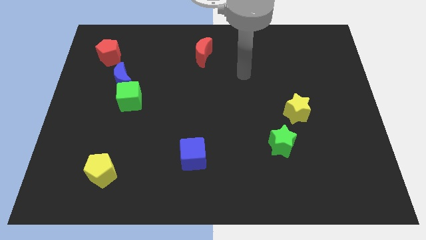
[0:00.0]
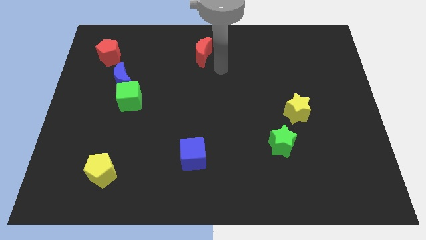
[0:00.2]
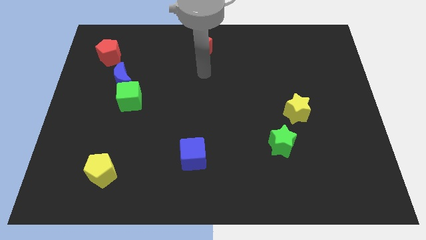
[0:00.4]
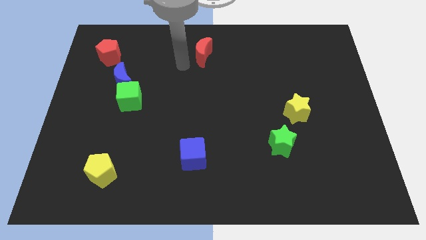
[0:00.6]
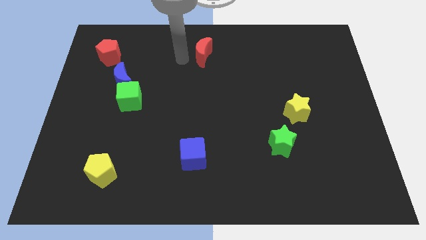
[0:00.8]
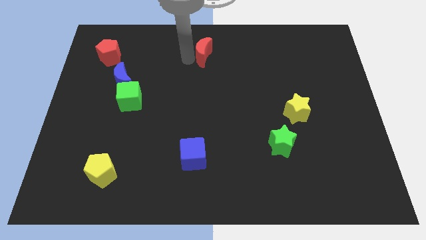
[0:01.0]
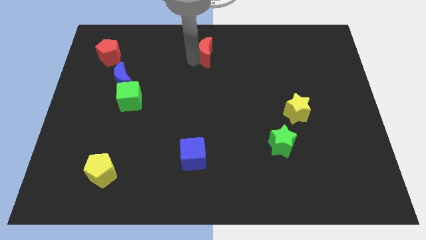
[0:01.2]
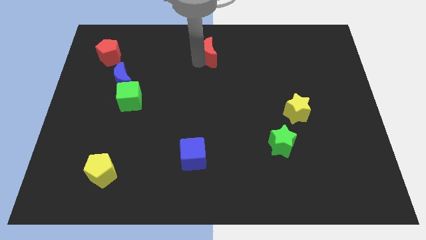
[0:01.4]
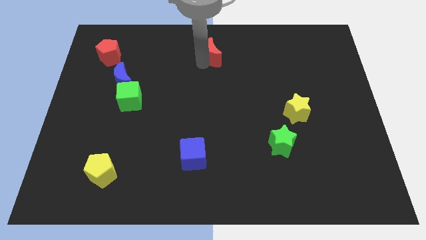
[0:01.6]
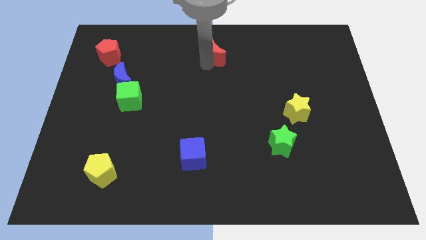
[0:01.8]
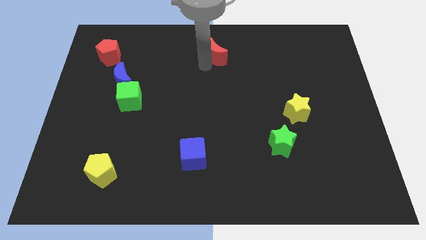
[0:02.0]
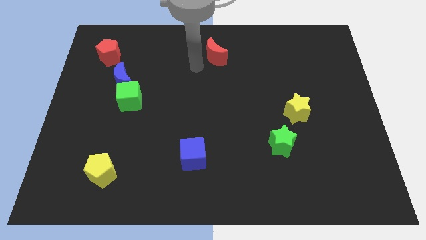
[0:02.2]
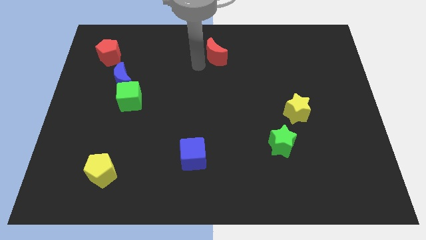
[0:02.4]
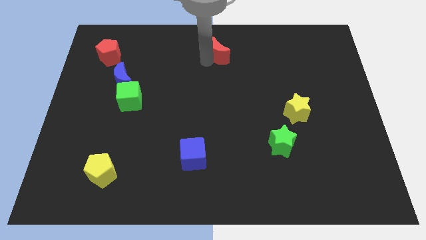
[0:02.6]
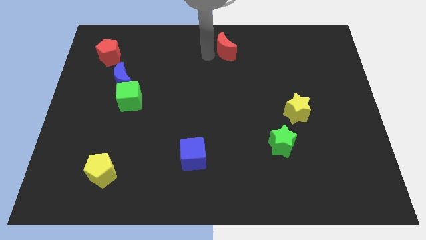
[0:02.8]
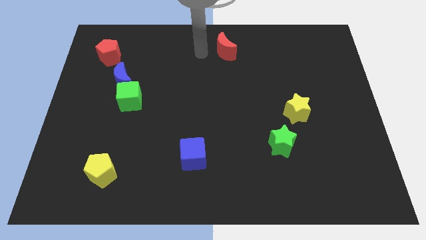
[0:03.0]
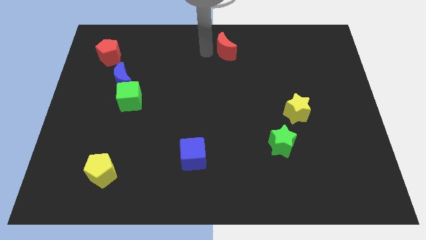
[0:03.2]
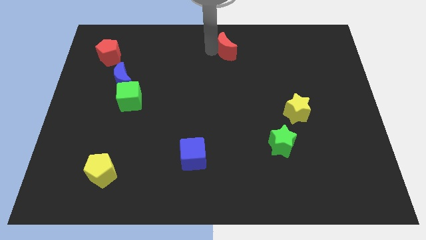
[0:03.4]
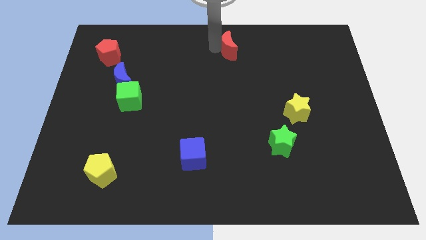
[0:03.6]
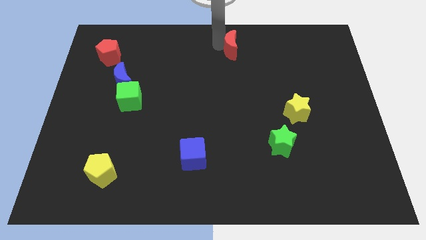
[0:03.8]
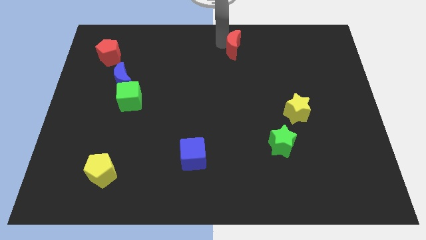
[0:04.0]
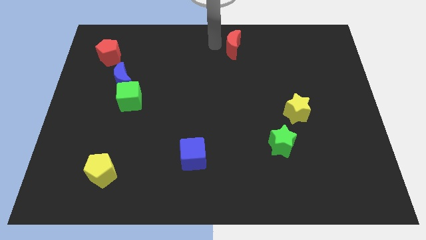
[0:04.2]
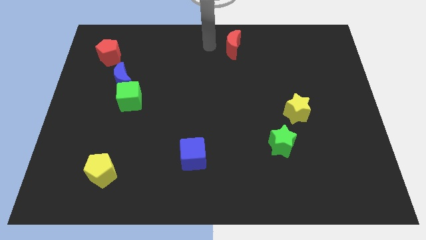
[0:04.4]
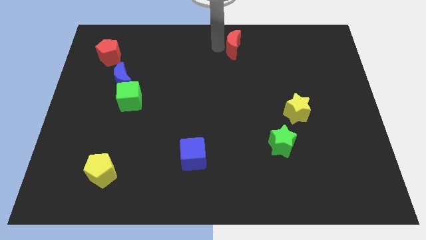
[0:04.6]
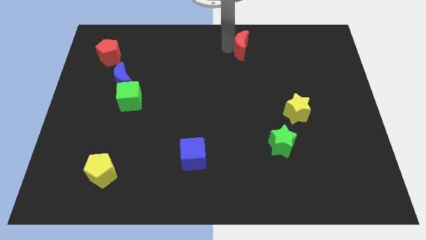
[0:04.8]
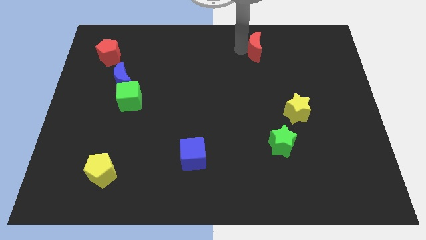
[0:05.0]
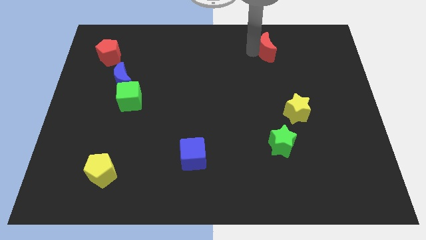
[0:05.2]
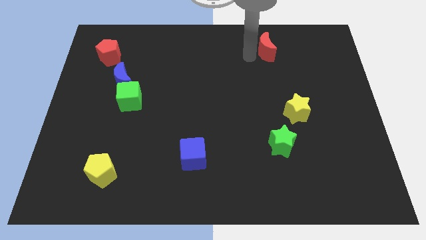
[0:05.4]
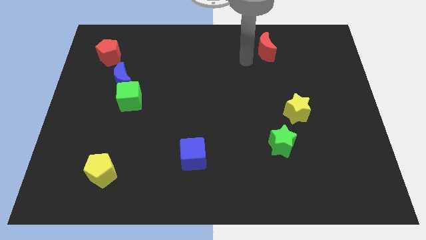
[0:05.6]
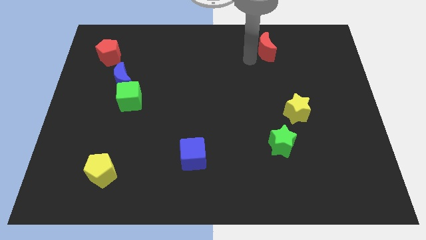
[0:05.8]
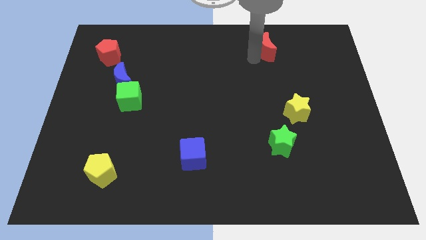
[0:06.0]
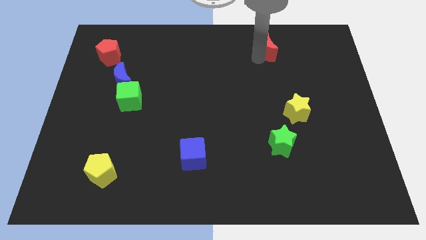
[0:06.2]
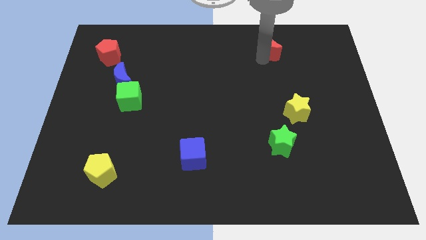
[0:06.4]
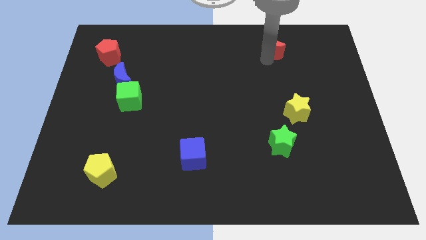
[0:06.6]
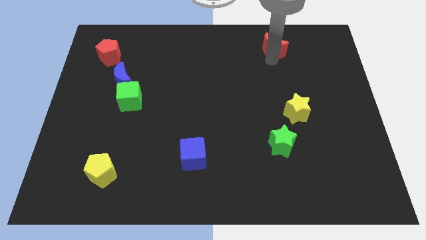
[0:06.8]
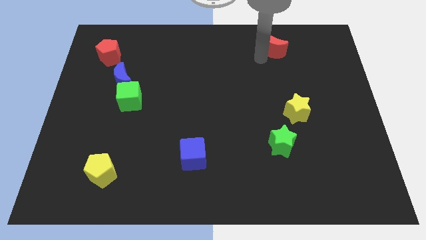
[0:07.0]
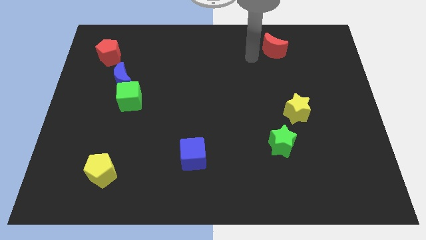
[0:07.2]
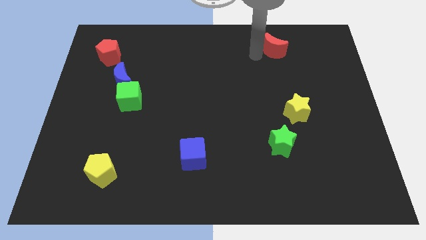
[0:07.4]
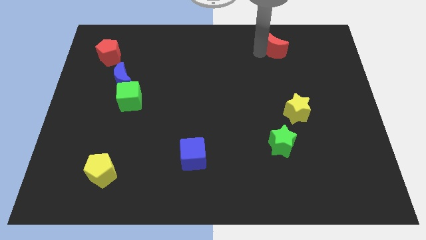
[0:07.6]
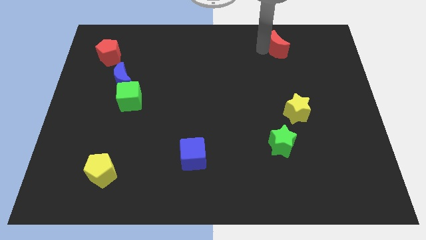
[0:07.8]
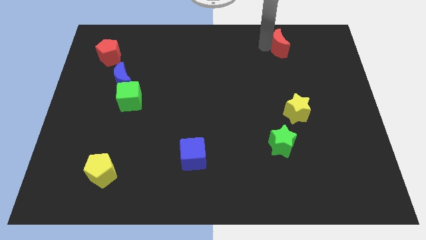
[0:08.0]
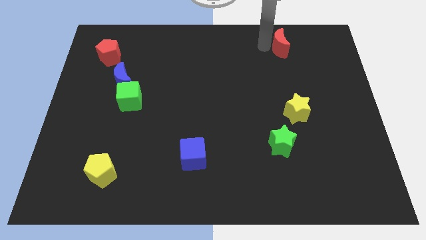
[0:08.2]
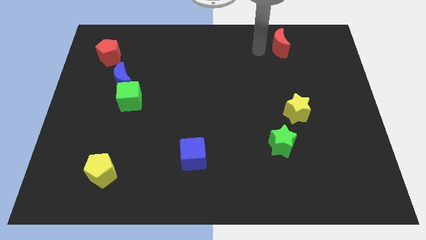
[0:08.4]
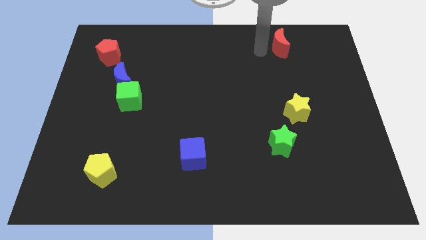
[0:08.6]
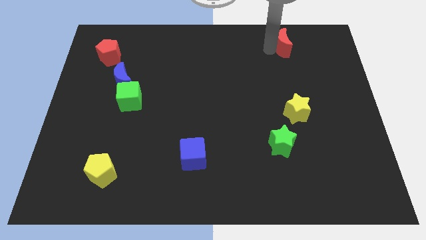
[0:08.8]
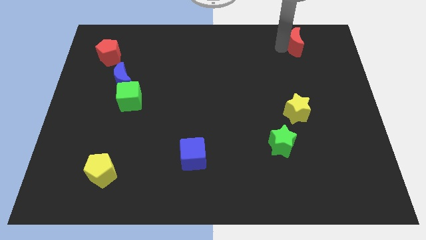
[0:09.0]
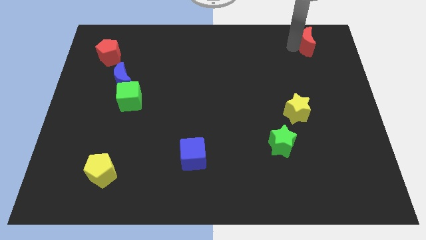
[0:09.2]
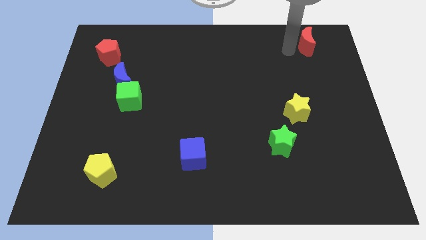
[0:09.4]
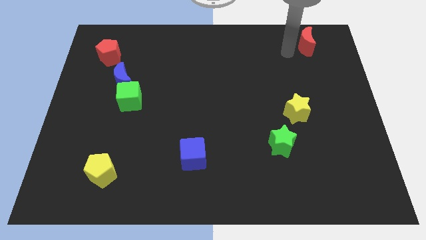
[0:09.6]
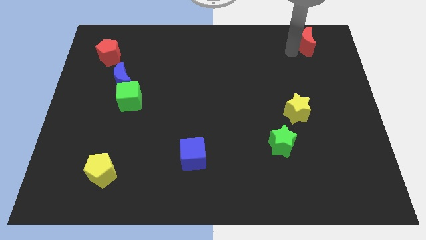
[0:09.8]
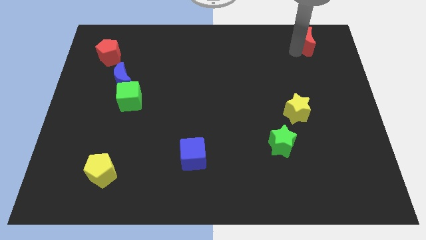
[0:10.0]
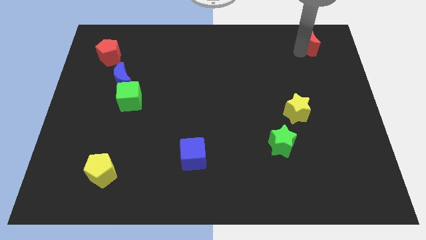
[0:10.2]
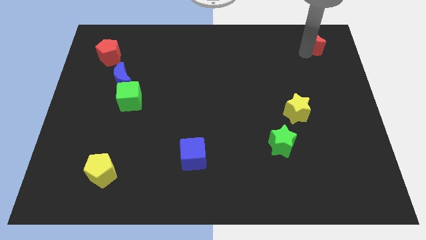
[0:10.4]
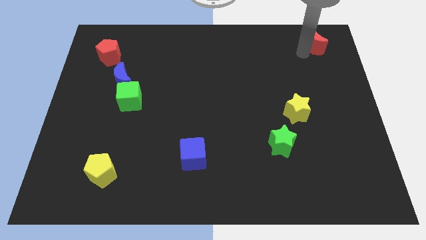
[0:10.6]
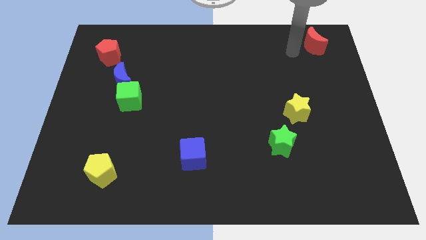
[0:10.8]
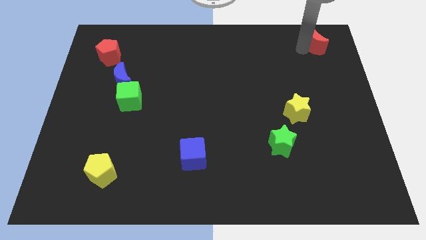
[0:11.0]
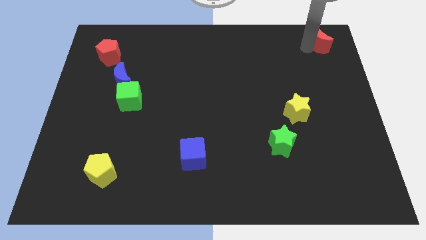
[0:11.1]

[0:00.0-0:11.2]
put the red moon to the top right corner

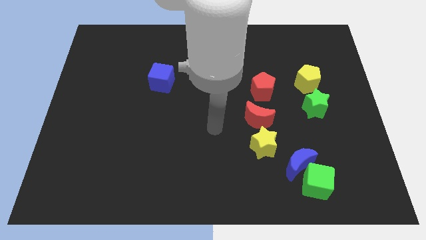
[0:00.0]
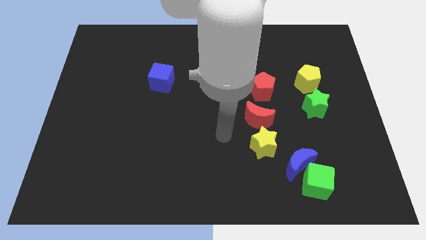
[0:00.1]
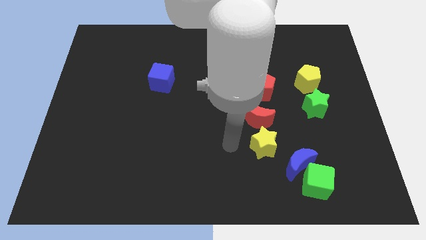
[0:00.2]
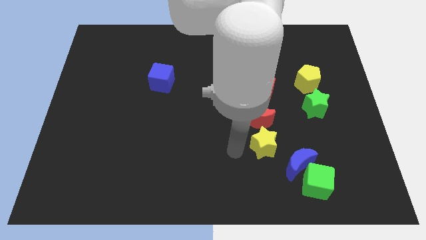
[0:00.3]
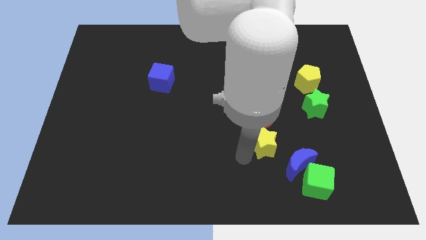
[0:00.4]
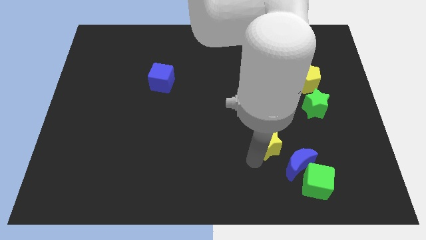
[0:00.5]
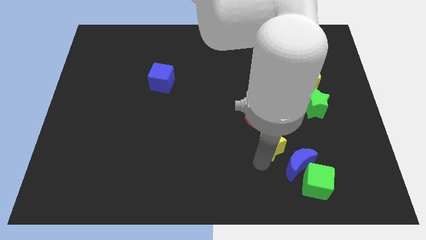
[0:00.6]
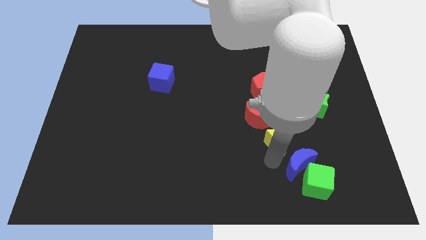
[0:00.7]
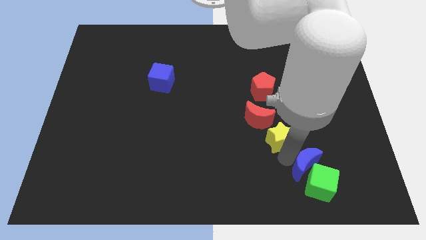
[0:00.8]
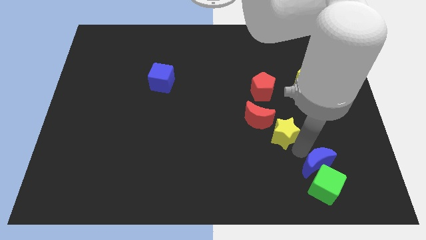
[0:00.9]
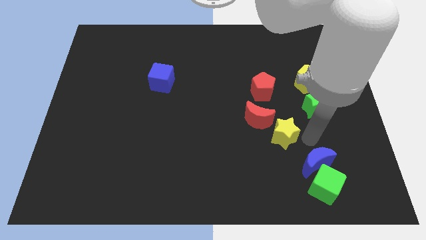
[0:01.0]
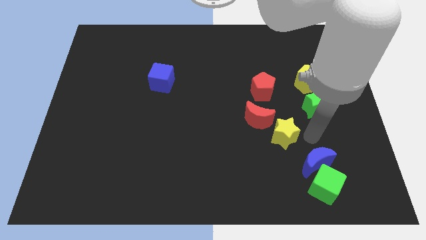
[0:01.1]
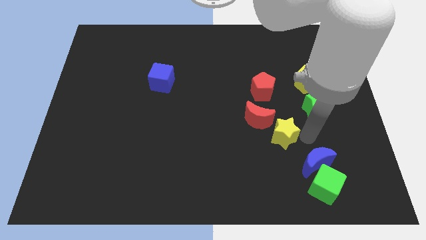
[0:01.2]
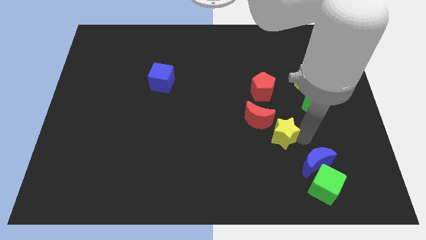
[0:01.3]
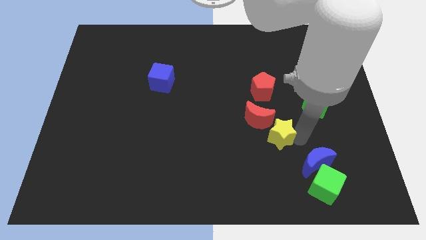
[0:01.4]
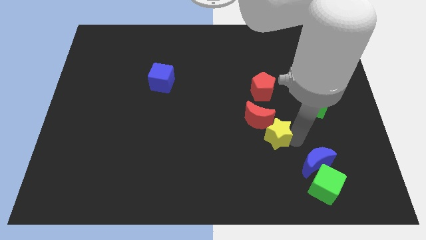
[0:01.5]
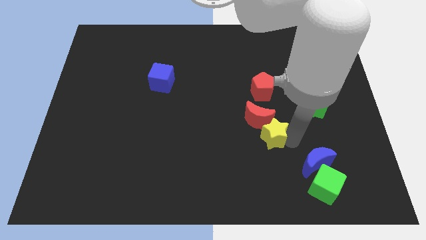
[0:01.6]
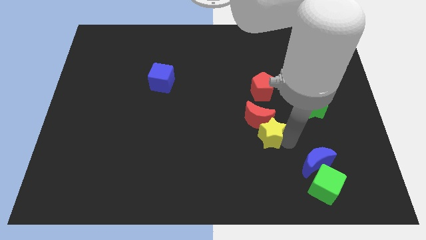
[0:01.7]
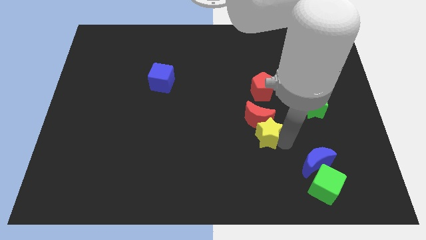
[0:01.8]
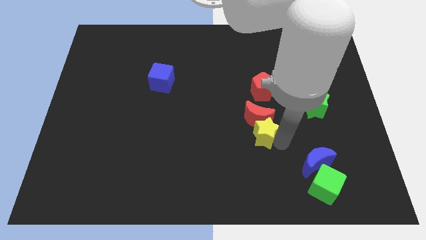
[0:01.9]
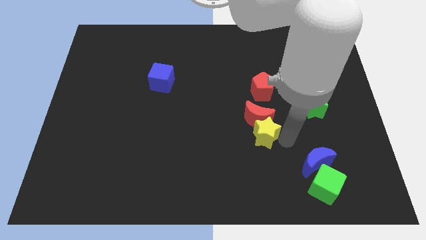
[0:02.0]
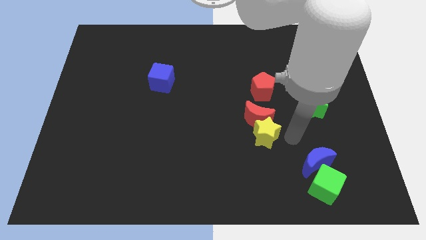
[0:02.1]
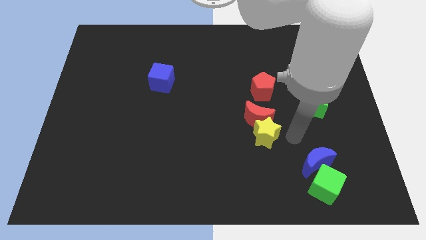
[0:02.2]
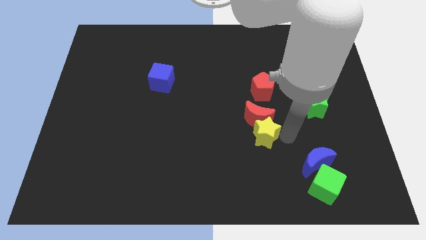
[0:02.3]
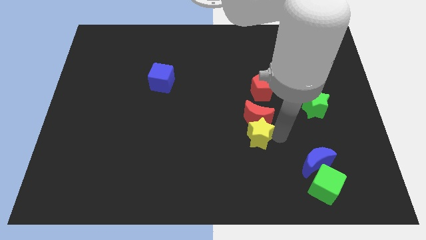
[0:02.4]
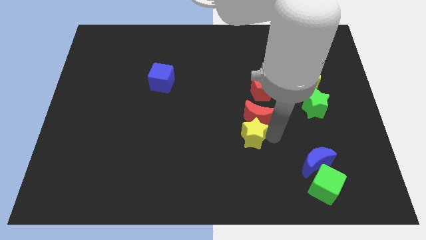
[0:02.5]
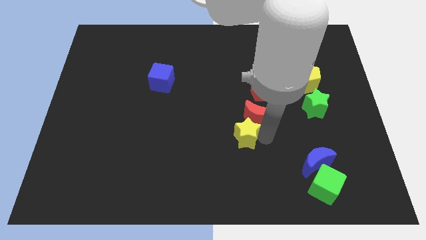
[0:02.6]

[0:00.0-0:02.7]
slide the yellow star to the middle
